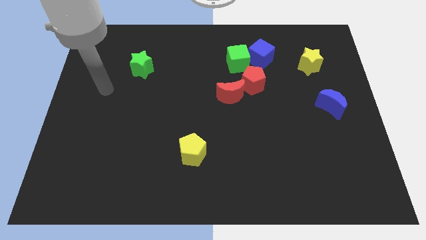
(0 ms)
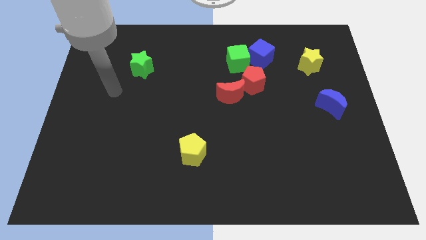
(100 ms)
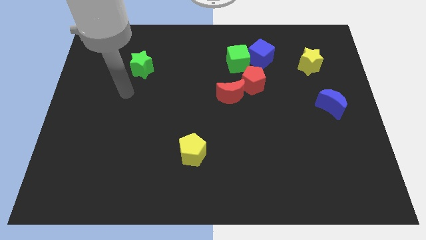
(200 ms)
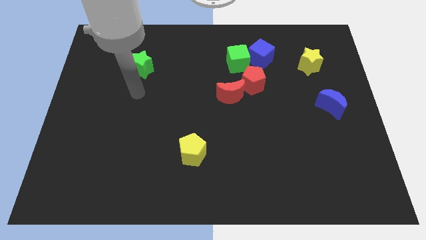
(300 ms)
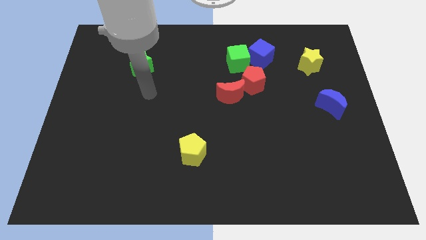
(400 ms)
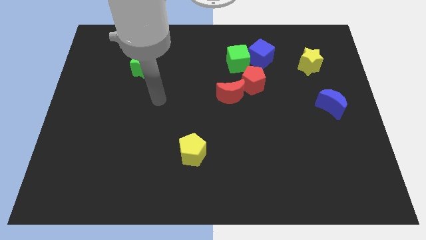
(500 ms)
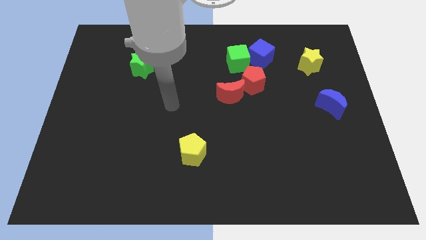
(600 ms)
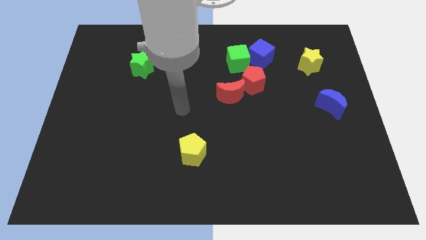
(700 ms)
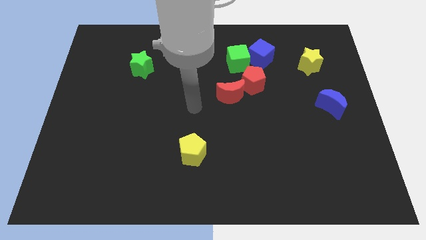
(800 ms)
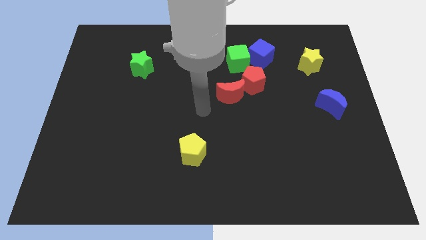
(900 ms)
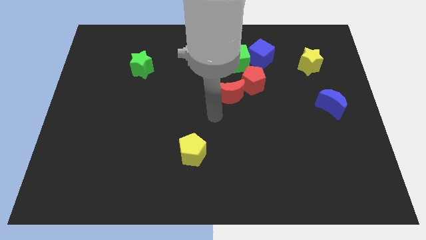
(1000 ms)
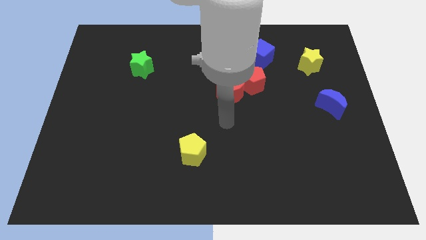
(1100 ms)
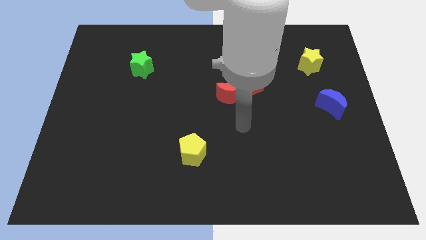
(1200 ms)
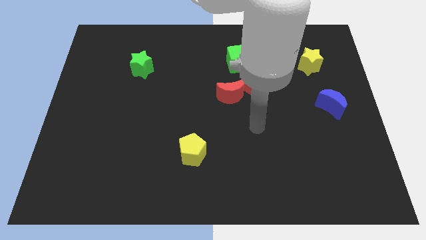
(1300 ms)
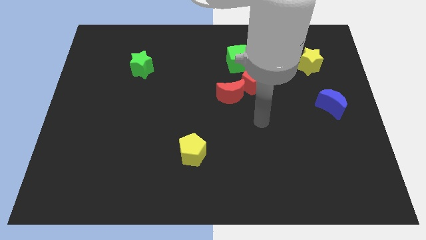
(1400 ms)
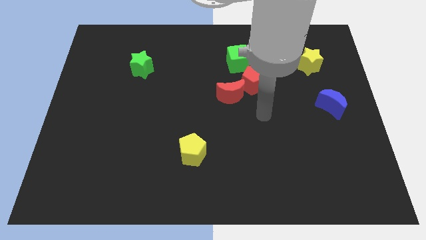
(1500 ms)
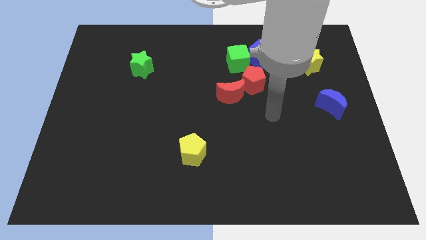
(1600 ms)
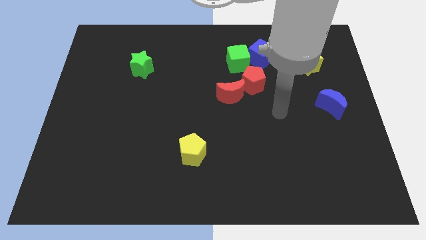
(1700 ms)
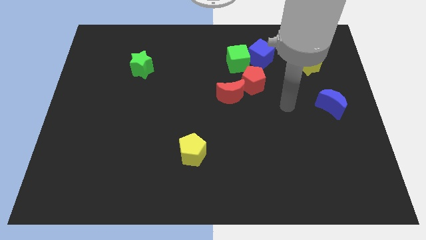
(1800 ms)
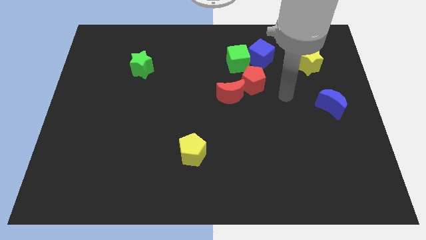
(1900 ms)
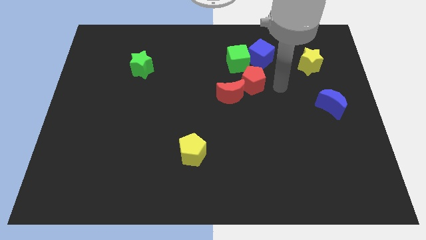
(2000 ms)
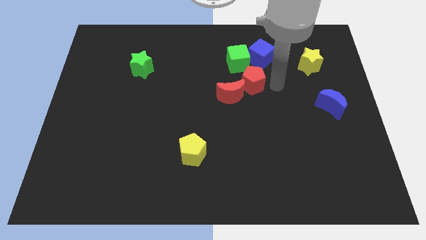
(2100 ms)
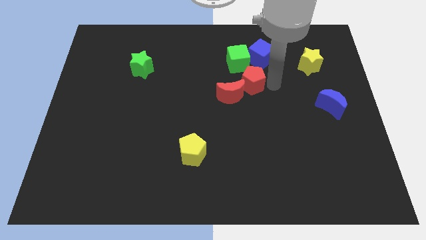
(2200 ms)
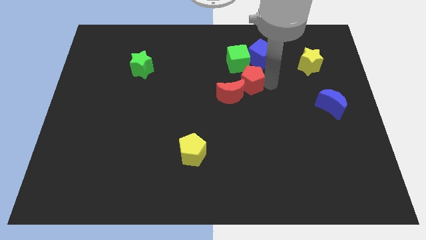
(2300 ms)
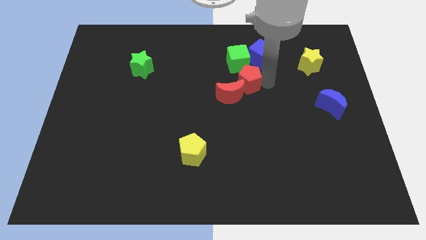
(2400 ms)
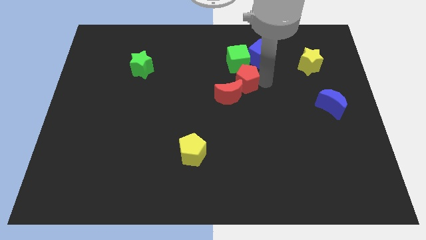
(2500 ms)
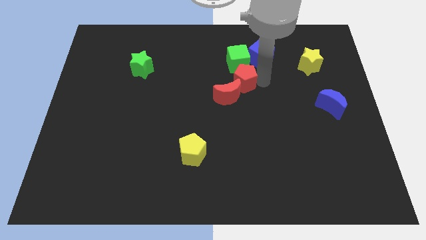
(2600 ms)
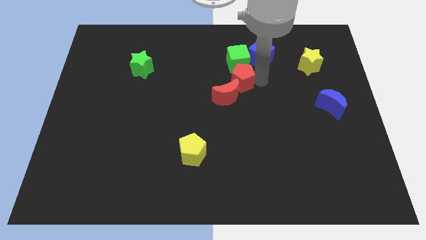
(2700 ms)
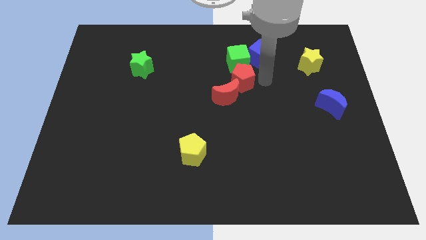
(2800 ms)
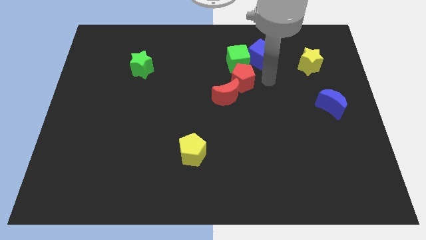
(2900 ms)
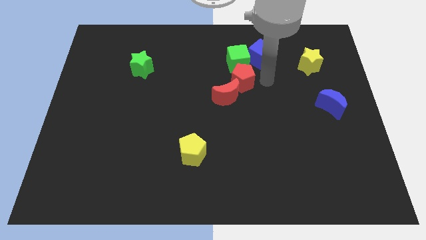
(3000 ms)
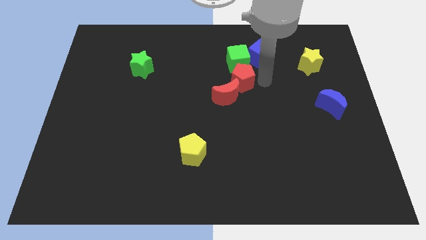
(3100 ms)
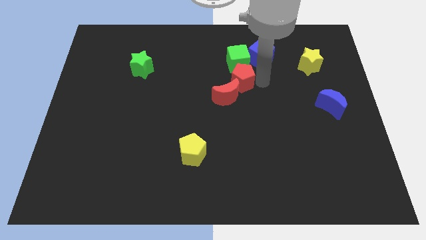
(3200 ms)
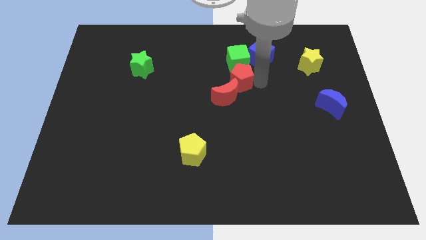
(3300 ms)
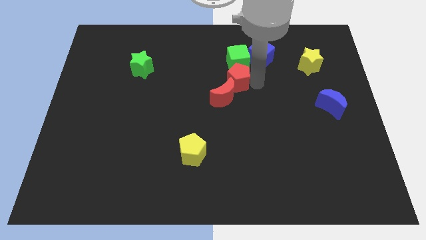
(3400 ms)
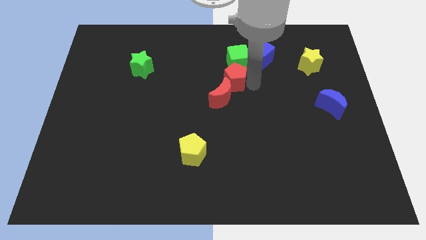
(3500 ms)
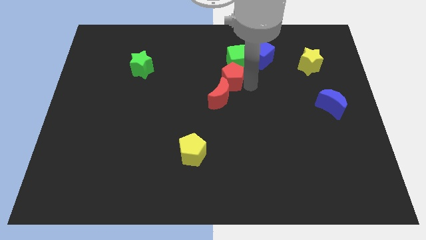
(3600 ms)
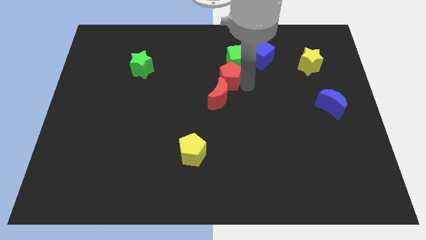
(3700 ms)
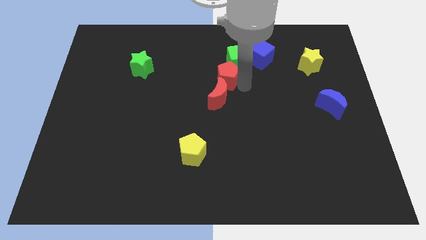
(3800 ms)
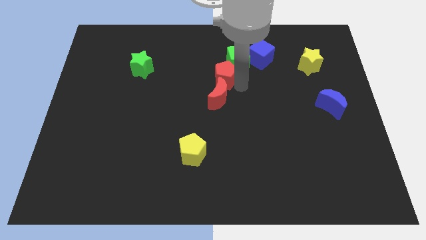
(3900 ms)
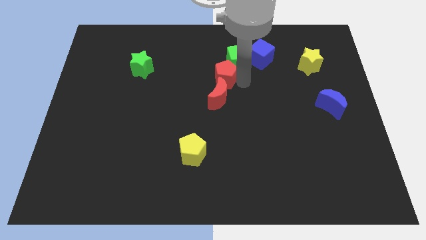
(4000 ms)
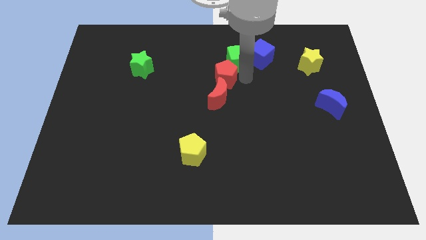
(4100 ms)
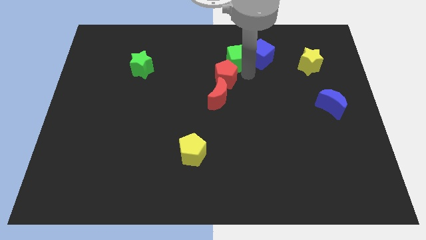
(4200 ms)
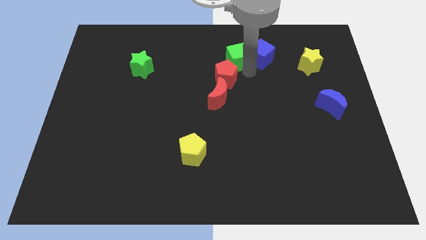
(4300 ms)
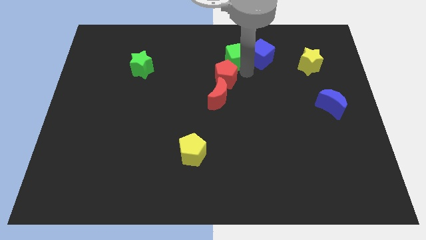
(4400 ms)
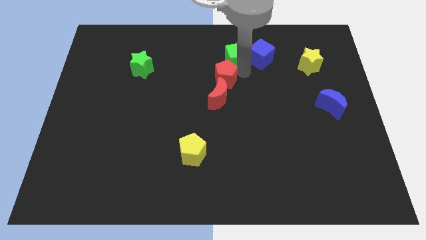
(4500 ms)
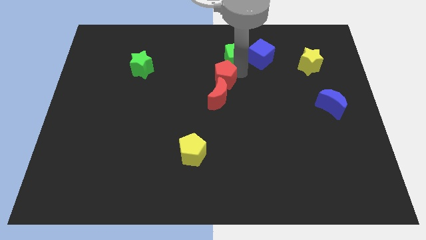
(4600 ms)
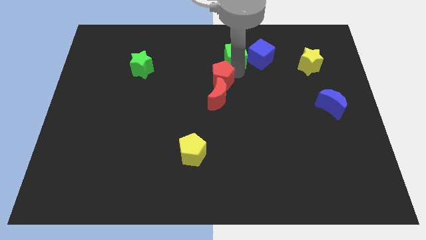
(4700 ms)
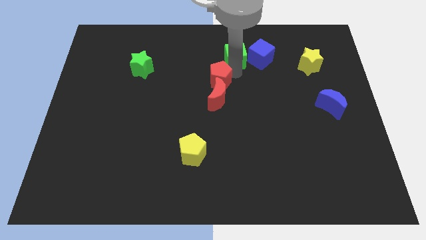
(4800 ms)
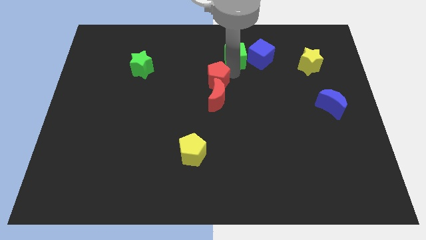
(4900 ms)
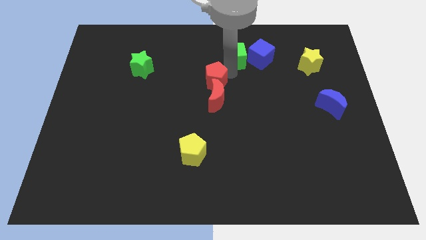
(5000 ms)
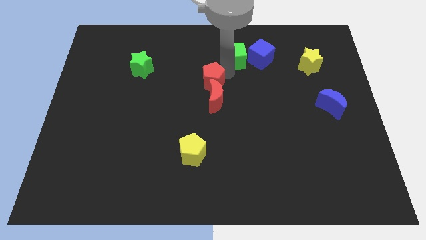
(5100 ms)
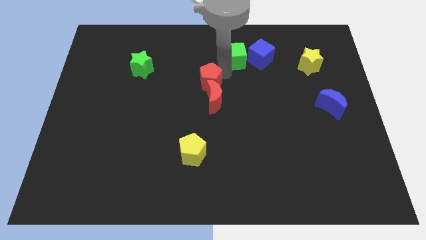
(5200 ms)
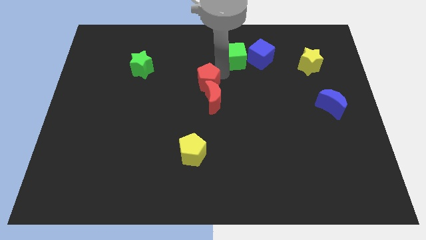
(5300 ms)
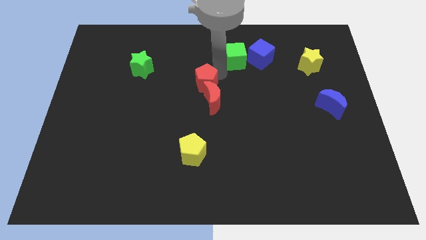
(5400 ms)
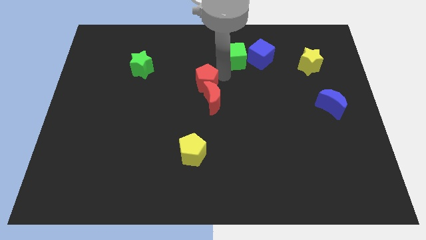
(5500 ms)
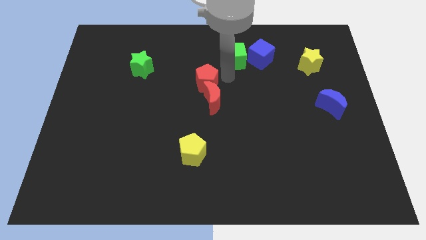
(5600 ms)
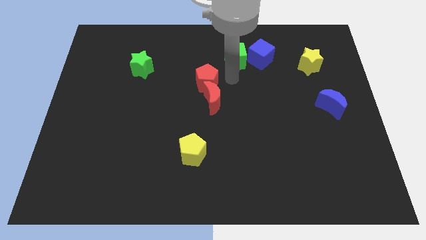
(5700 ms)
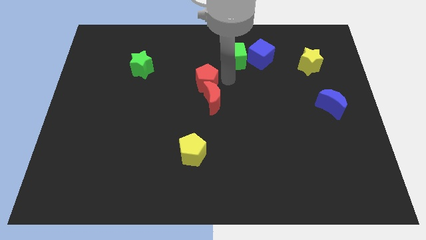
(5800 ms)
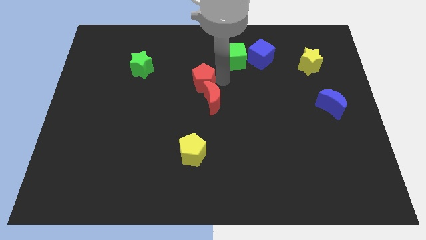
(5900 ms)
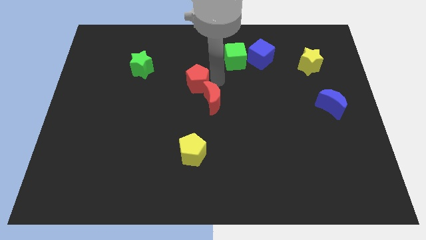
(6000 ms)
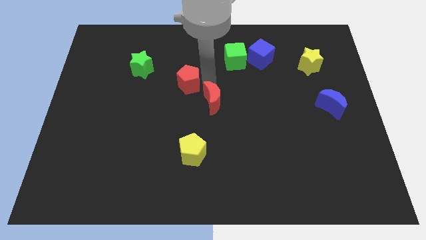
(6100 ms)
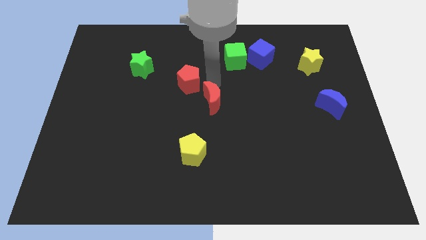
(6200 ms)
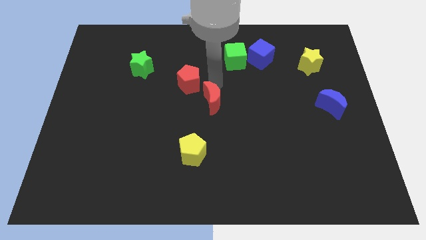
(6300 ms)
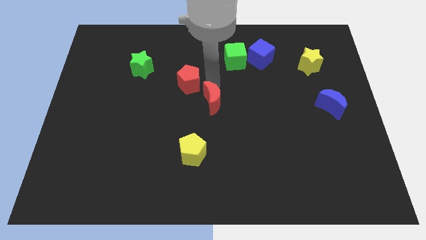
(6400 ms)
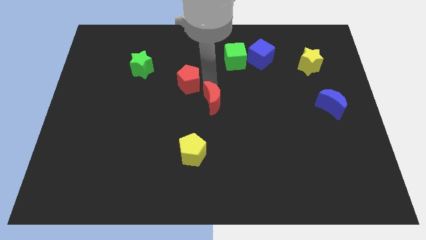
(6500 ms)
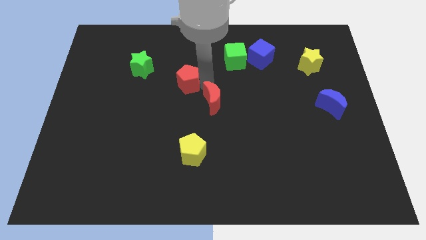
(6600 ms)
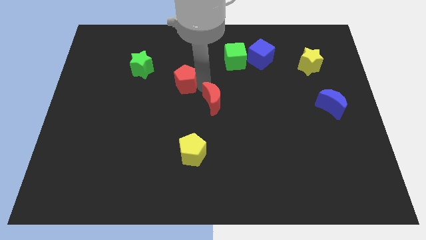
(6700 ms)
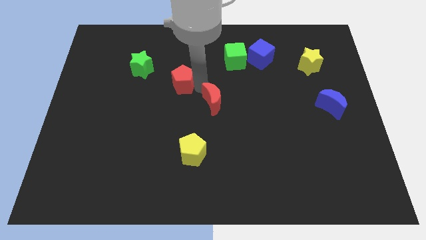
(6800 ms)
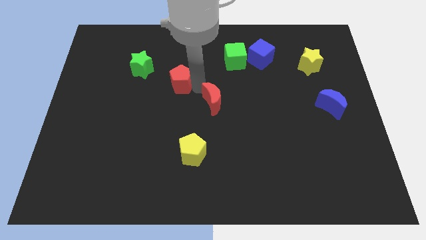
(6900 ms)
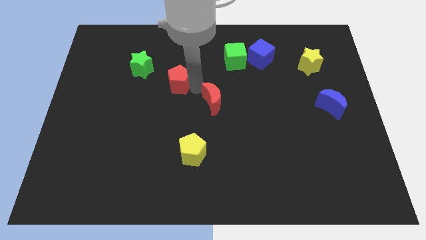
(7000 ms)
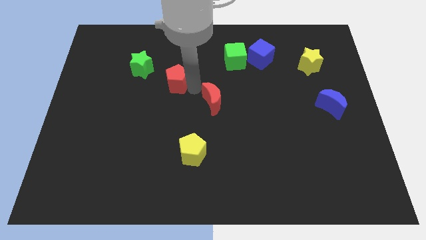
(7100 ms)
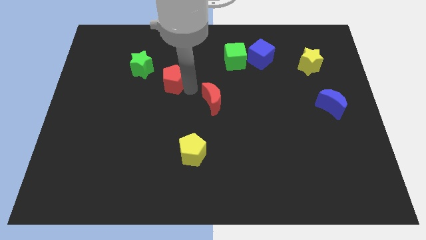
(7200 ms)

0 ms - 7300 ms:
move the red pentagon to the left

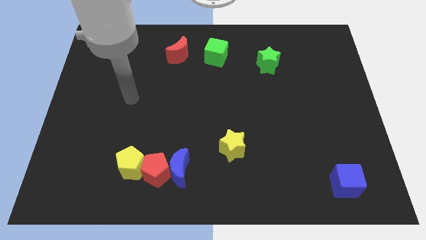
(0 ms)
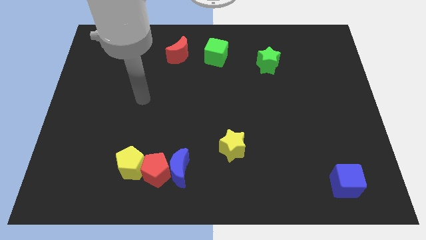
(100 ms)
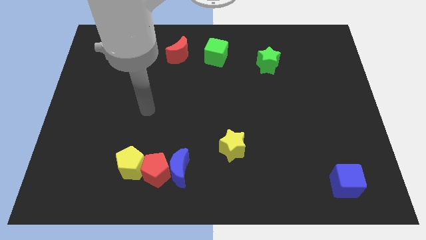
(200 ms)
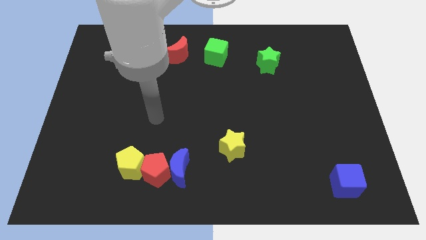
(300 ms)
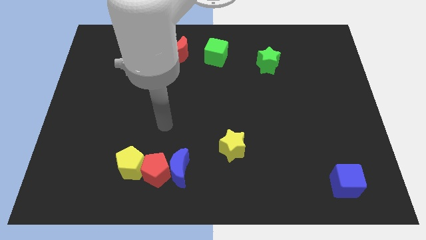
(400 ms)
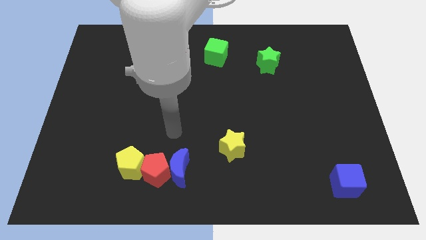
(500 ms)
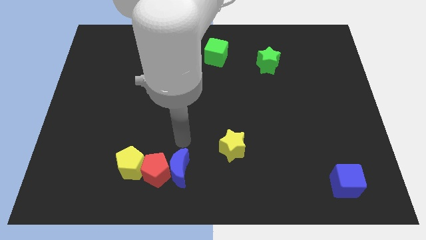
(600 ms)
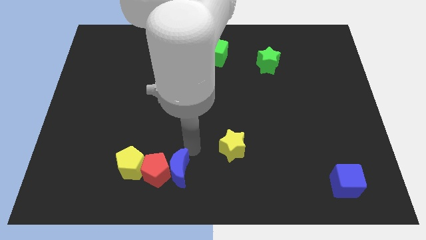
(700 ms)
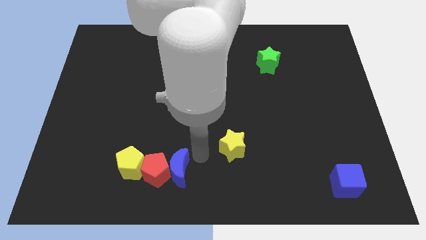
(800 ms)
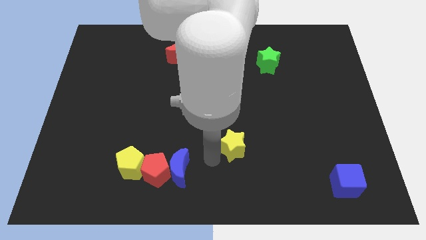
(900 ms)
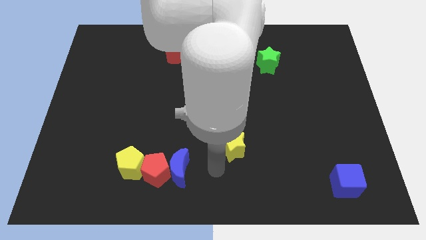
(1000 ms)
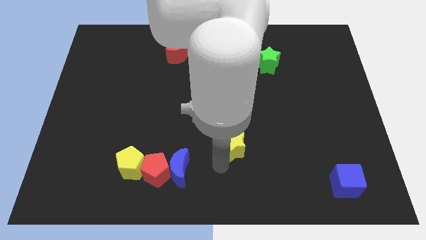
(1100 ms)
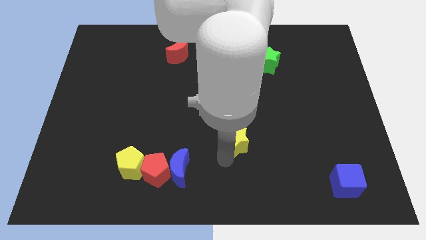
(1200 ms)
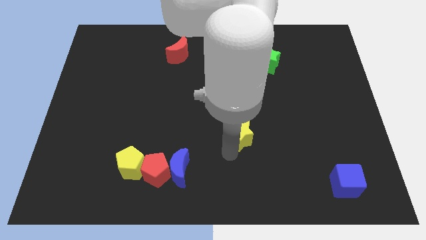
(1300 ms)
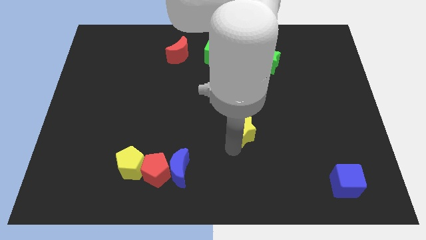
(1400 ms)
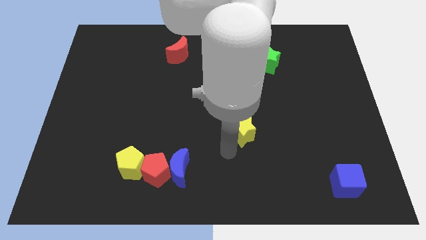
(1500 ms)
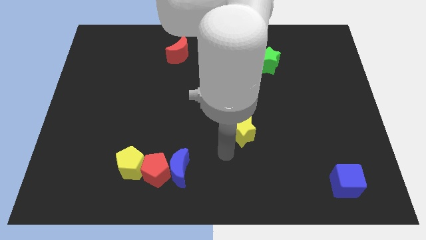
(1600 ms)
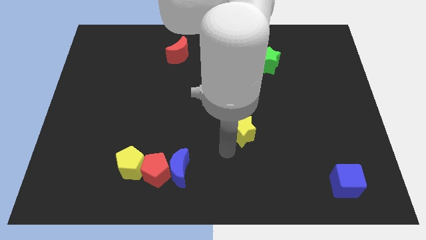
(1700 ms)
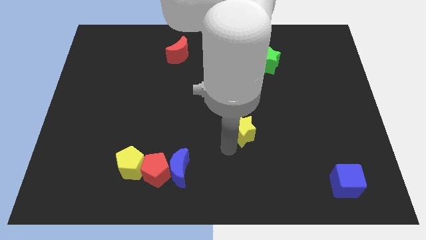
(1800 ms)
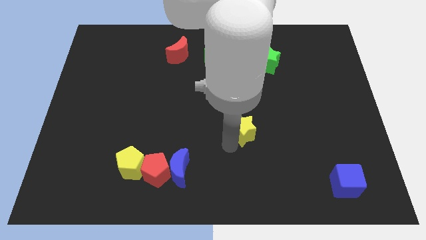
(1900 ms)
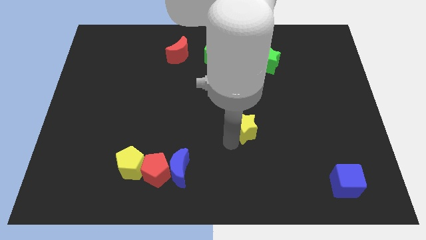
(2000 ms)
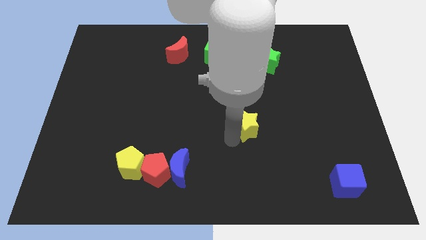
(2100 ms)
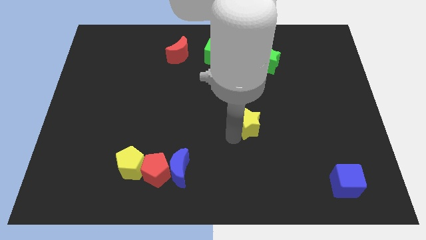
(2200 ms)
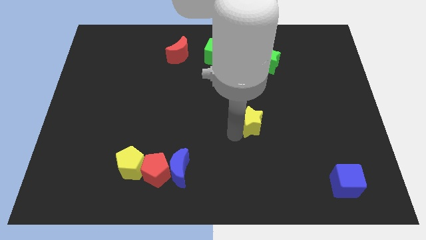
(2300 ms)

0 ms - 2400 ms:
slide the yellow star upwards and right a little
